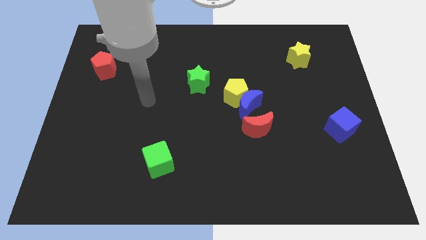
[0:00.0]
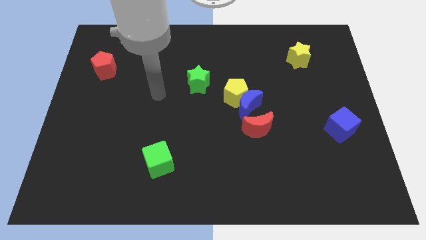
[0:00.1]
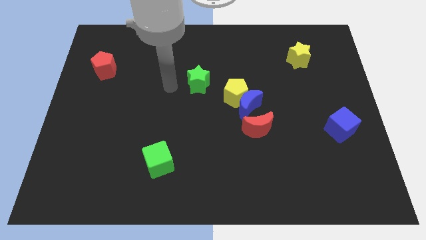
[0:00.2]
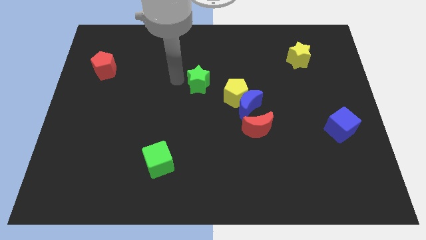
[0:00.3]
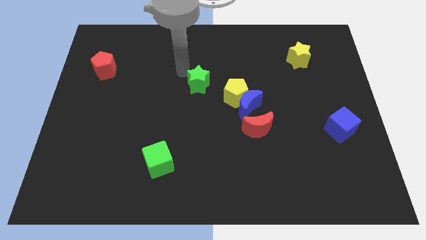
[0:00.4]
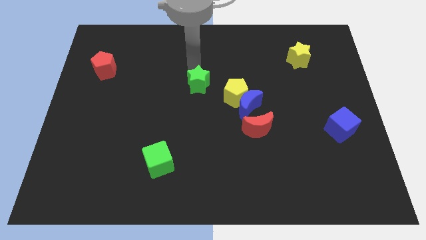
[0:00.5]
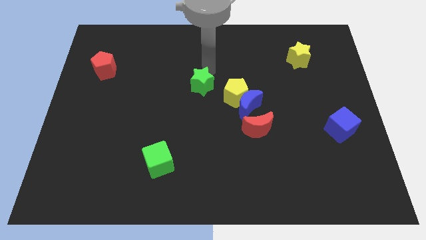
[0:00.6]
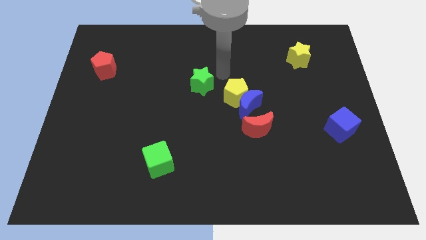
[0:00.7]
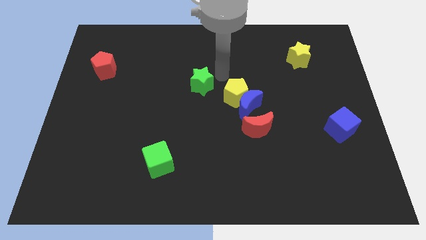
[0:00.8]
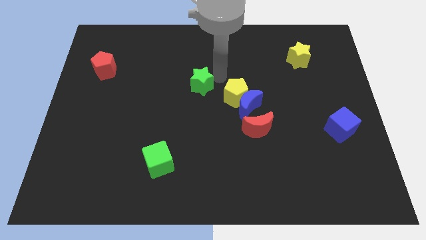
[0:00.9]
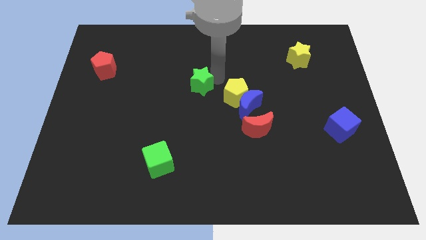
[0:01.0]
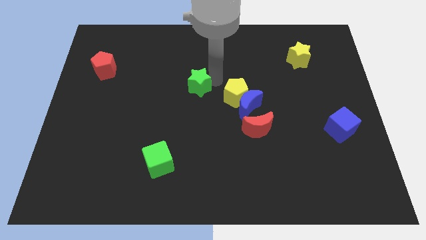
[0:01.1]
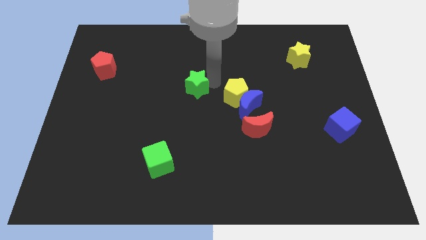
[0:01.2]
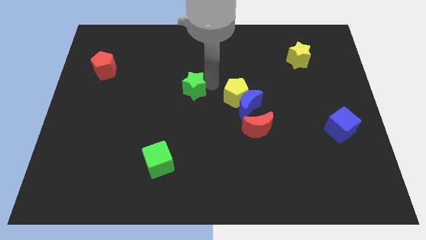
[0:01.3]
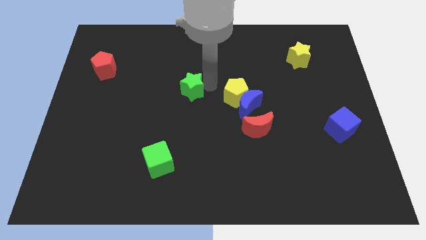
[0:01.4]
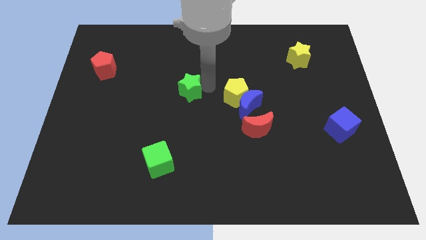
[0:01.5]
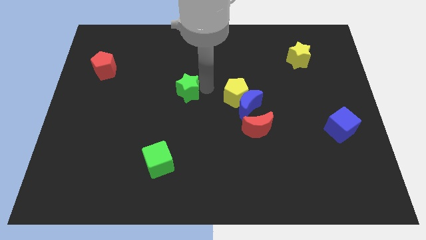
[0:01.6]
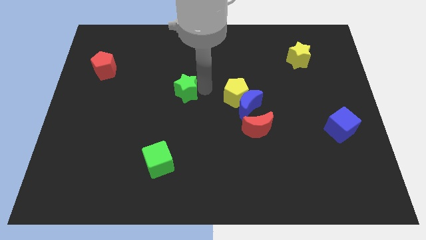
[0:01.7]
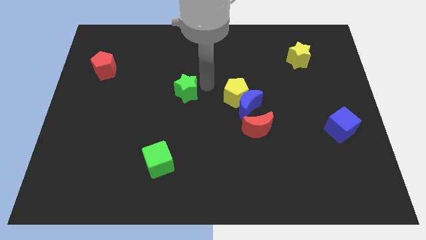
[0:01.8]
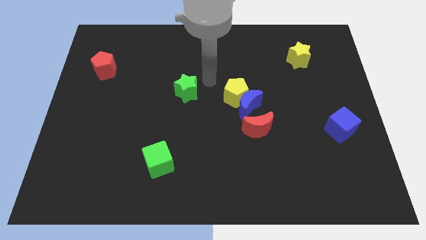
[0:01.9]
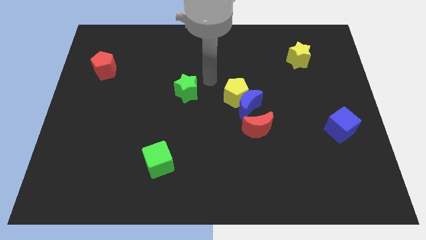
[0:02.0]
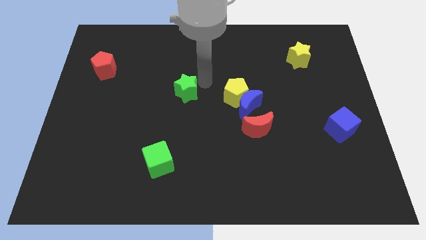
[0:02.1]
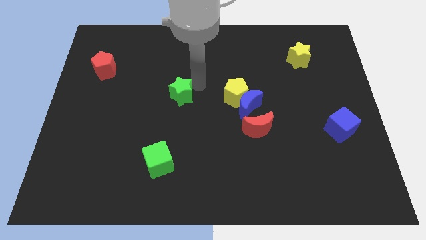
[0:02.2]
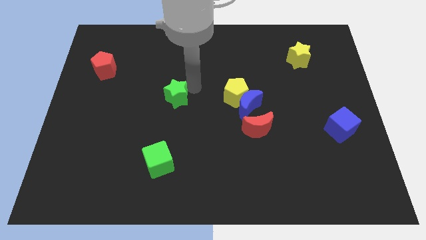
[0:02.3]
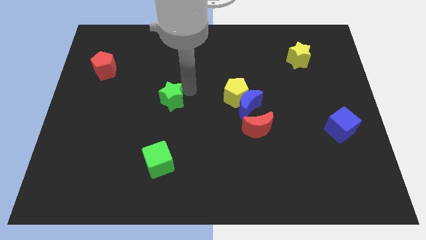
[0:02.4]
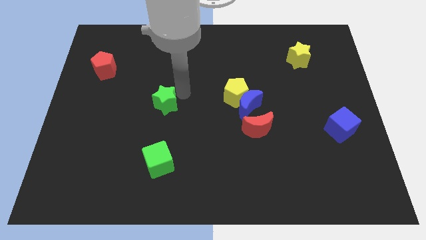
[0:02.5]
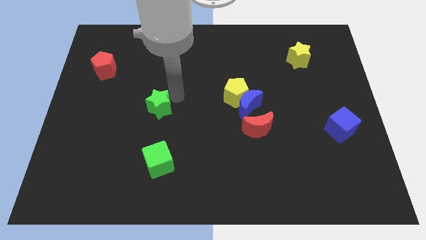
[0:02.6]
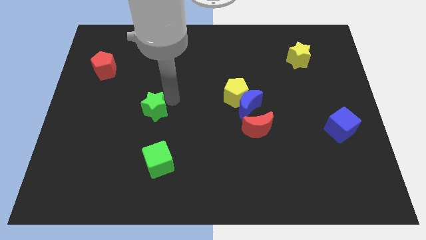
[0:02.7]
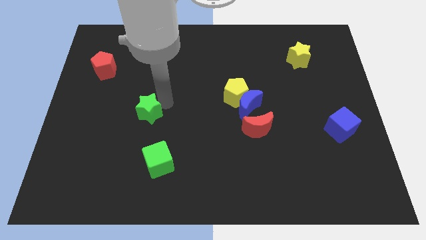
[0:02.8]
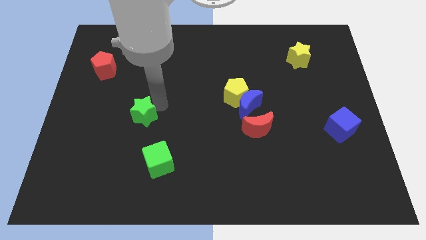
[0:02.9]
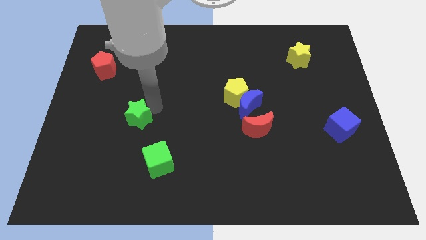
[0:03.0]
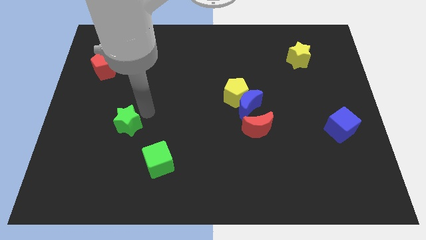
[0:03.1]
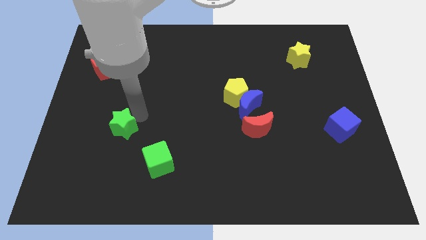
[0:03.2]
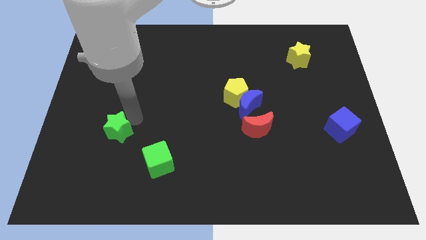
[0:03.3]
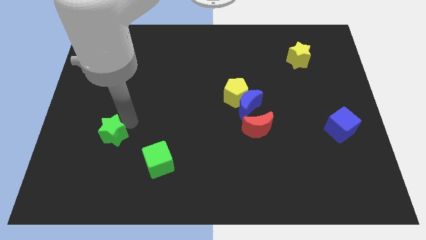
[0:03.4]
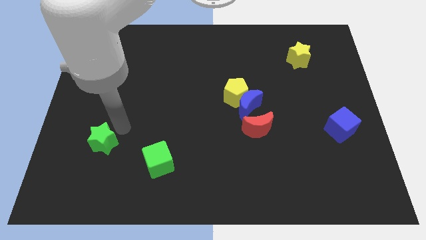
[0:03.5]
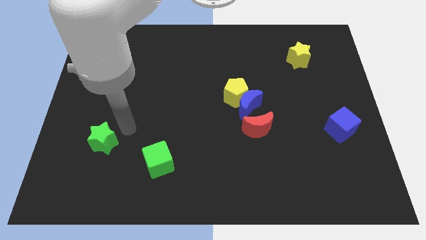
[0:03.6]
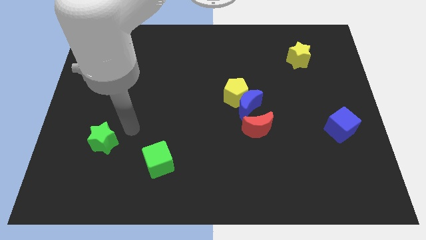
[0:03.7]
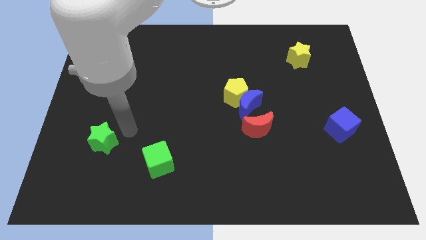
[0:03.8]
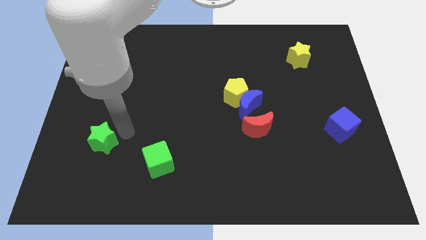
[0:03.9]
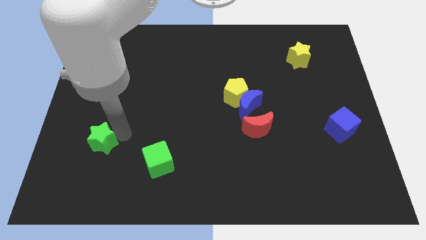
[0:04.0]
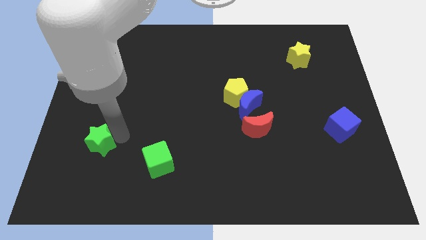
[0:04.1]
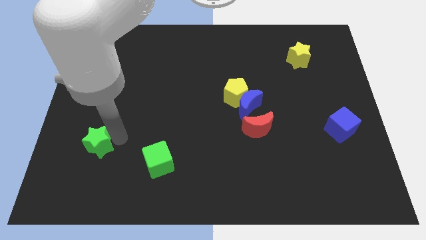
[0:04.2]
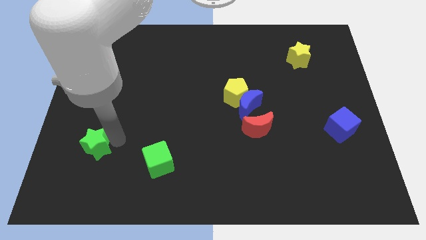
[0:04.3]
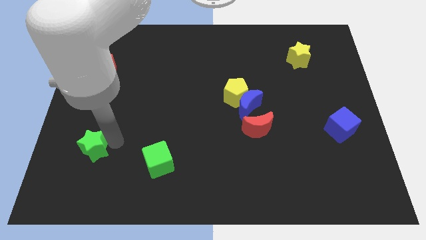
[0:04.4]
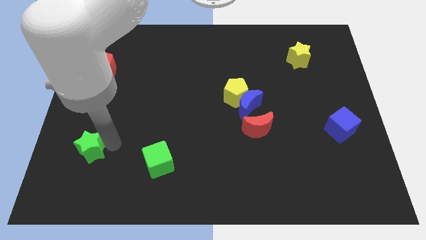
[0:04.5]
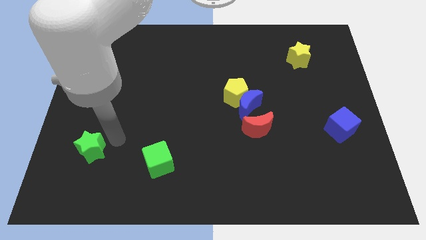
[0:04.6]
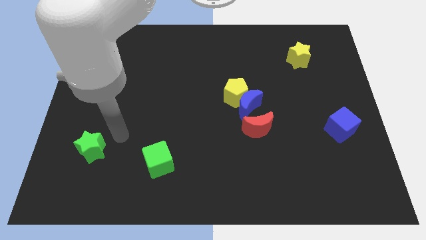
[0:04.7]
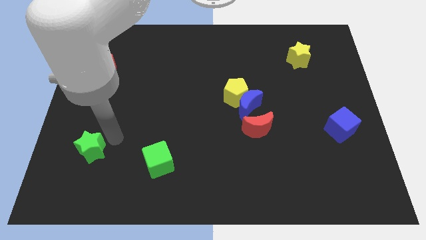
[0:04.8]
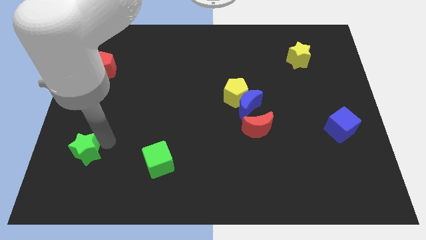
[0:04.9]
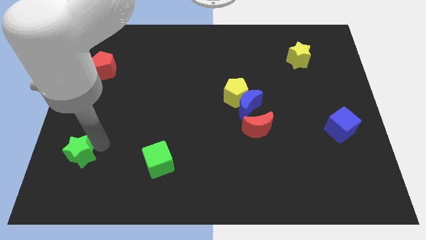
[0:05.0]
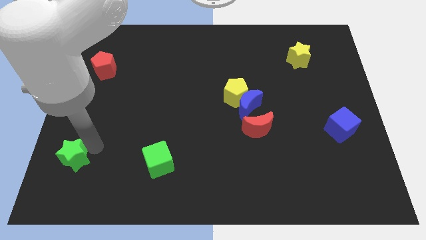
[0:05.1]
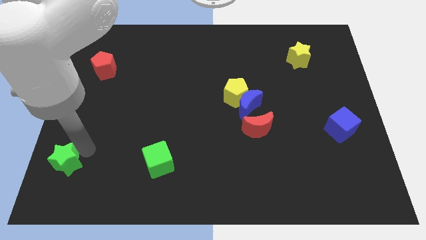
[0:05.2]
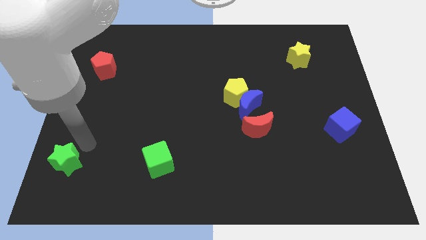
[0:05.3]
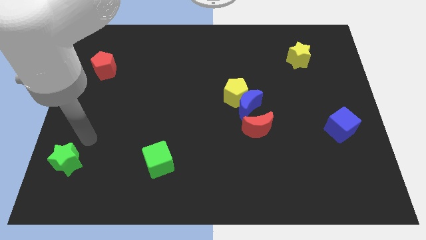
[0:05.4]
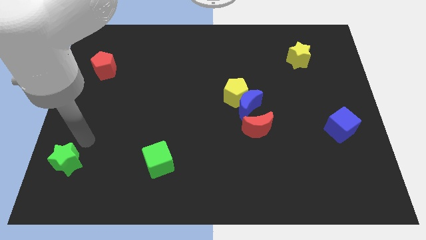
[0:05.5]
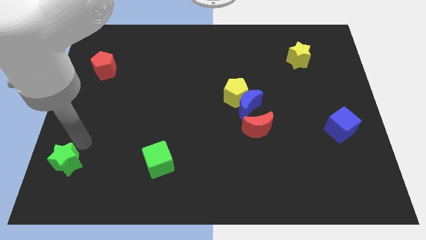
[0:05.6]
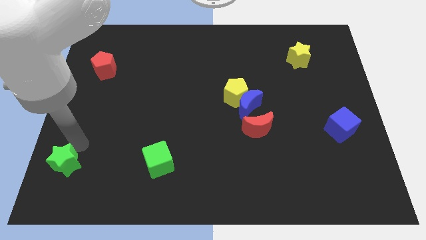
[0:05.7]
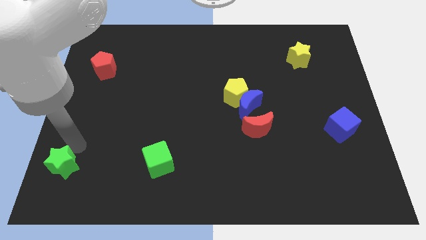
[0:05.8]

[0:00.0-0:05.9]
move the green star to the lower left corner
